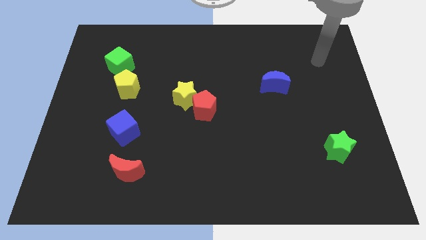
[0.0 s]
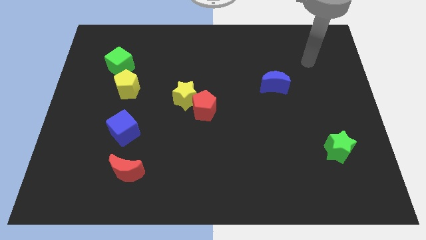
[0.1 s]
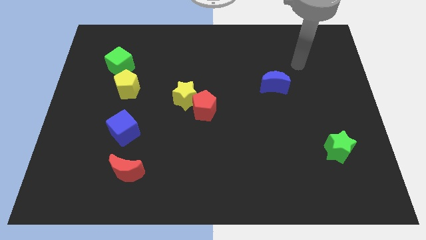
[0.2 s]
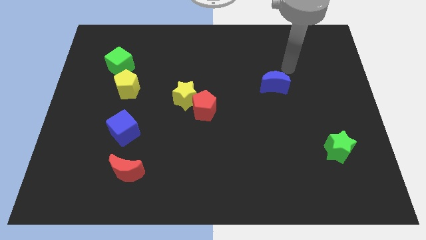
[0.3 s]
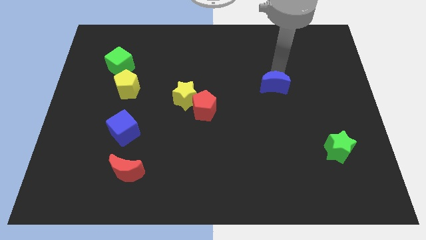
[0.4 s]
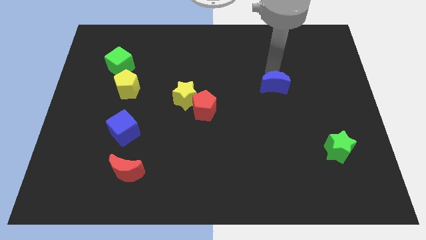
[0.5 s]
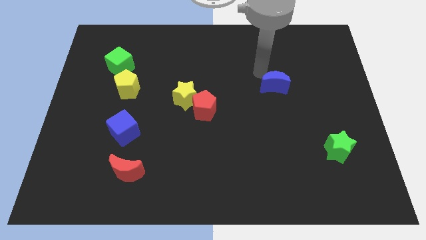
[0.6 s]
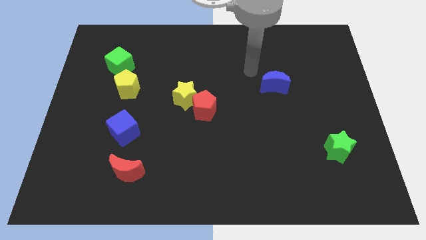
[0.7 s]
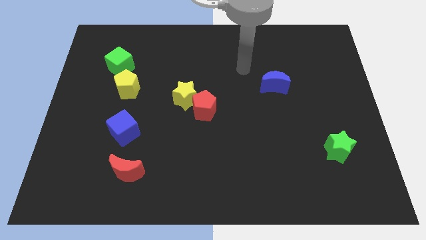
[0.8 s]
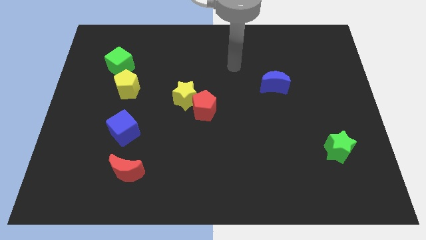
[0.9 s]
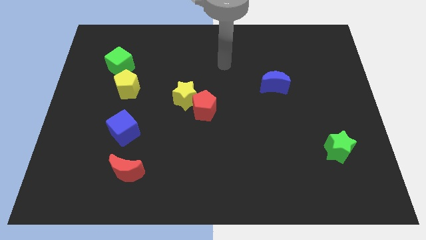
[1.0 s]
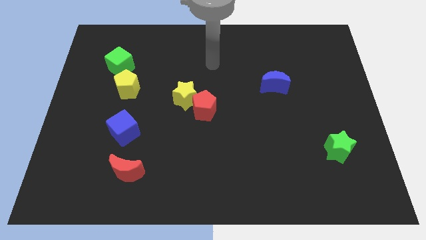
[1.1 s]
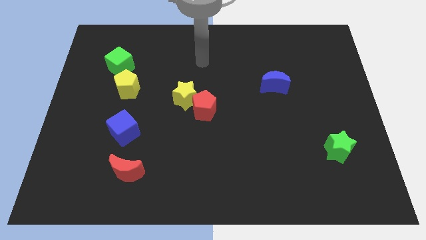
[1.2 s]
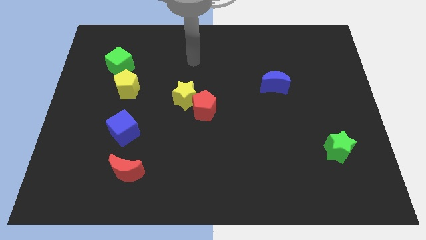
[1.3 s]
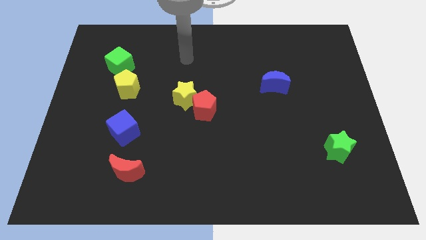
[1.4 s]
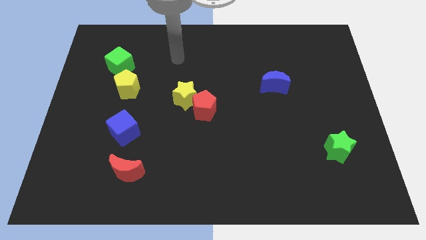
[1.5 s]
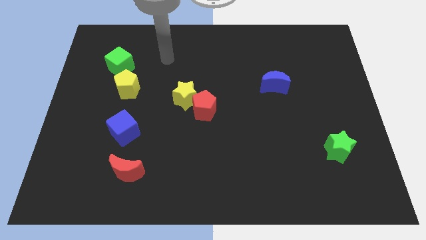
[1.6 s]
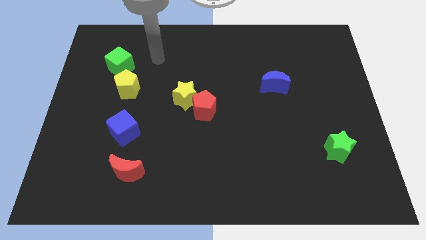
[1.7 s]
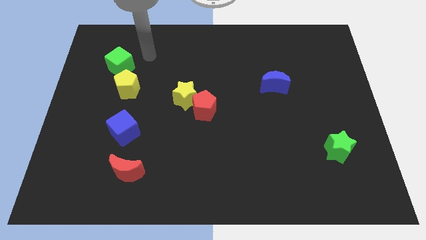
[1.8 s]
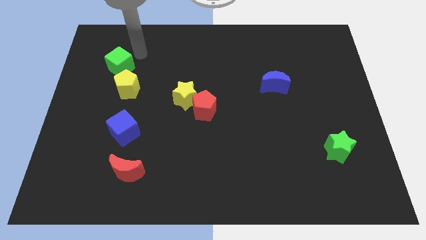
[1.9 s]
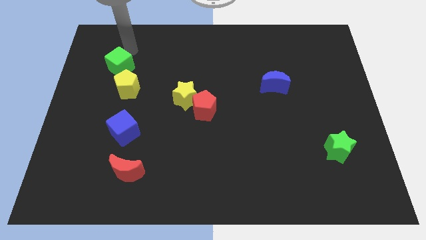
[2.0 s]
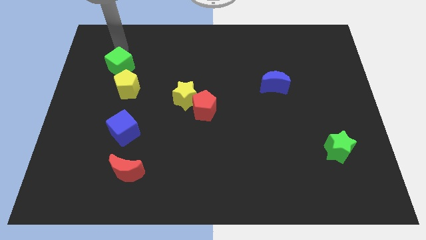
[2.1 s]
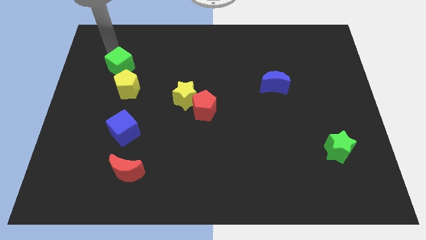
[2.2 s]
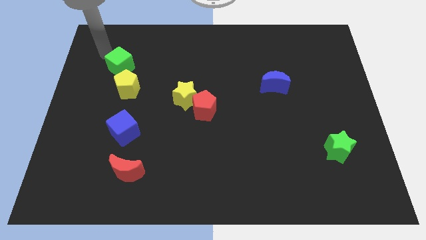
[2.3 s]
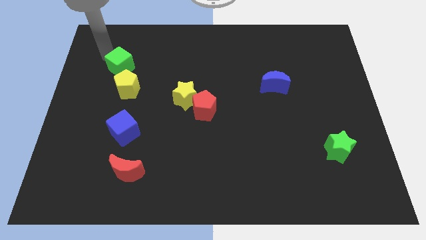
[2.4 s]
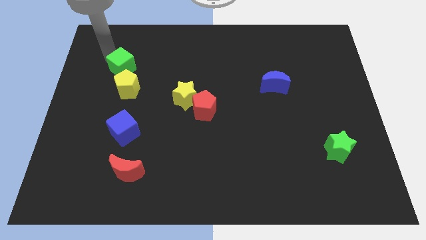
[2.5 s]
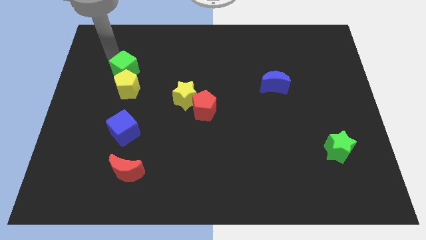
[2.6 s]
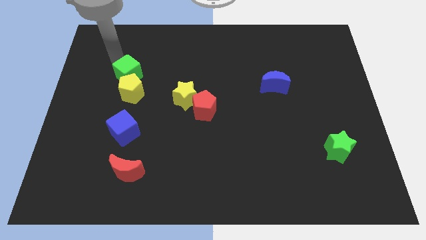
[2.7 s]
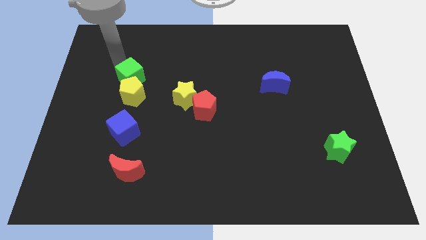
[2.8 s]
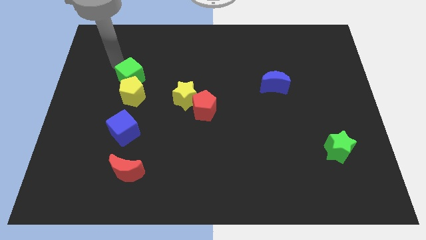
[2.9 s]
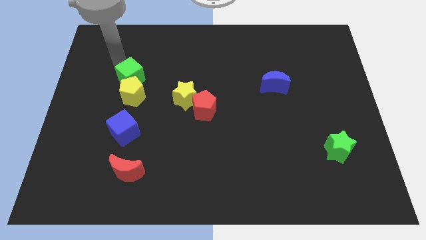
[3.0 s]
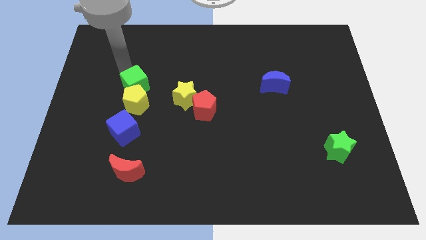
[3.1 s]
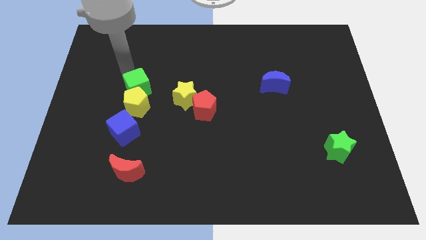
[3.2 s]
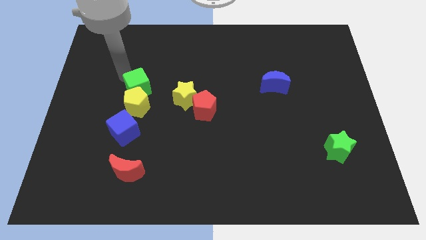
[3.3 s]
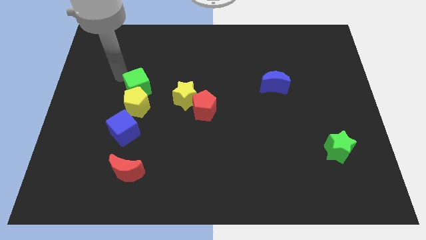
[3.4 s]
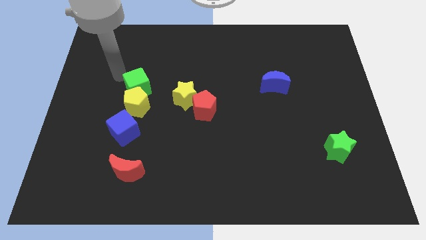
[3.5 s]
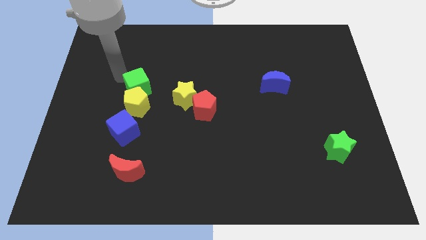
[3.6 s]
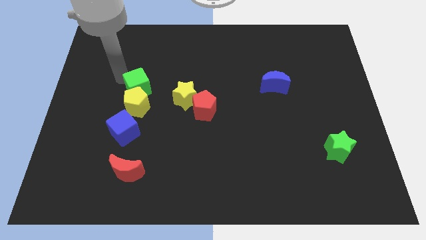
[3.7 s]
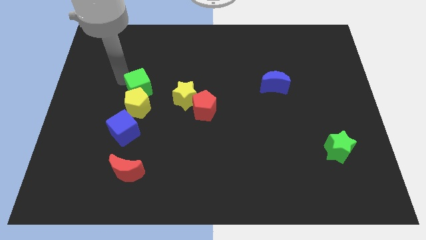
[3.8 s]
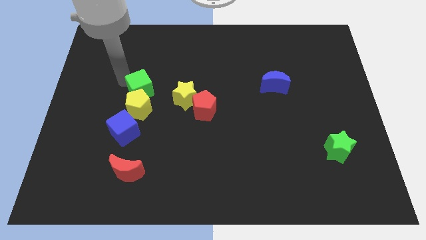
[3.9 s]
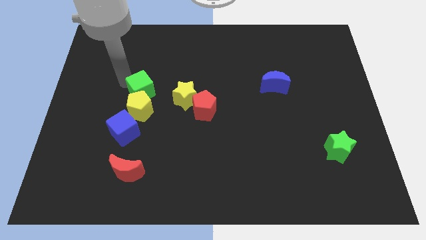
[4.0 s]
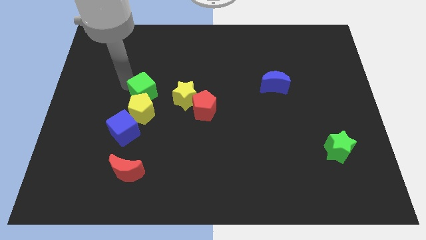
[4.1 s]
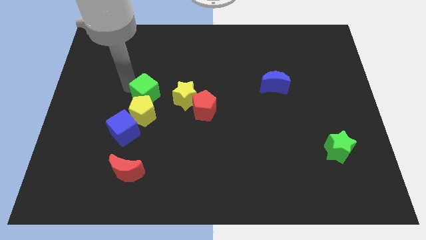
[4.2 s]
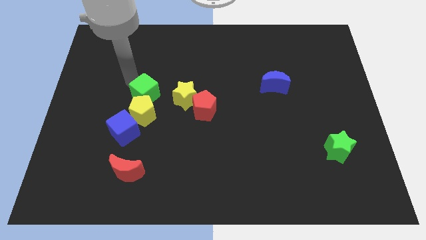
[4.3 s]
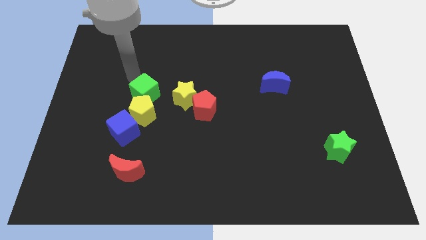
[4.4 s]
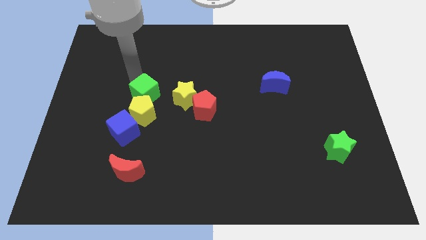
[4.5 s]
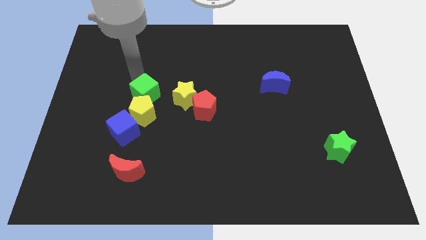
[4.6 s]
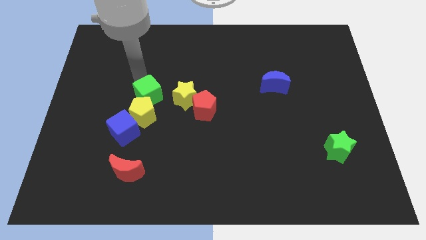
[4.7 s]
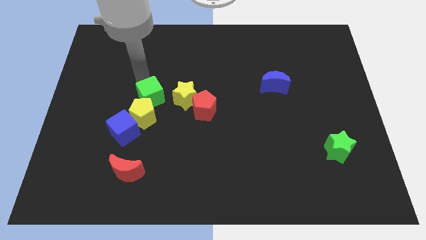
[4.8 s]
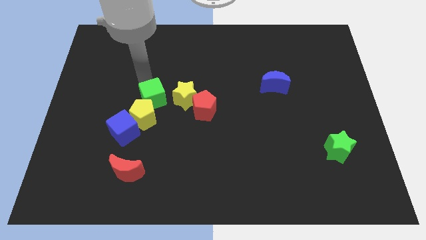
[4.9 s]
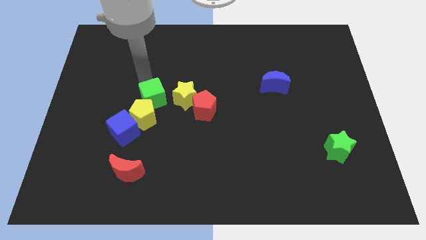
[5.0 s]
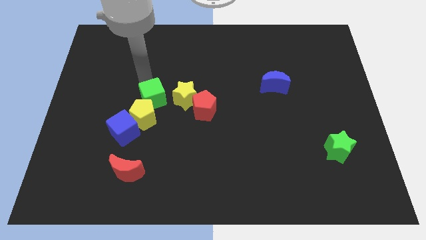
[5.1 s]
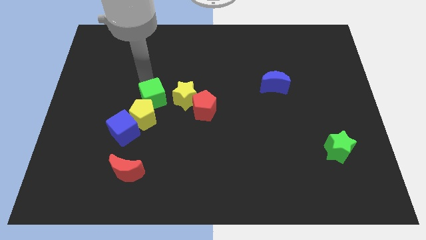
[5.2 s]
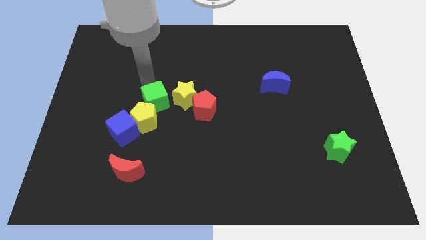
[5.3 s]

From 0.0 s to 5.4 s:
push the green cube diagonally down and to the left of the yellow star

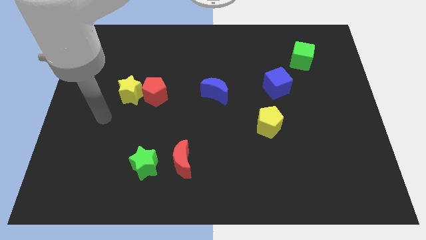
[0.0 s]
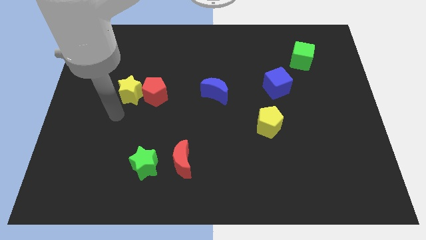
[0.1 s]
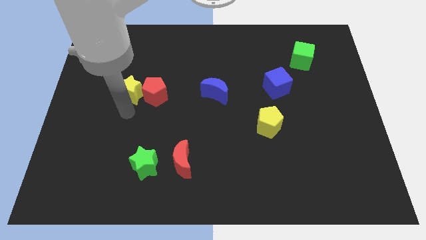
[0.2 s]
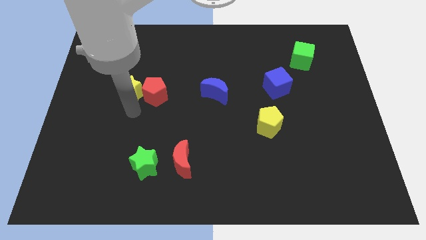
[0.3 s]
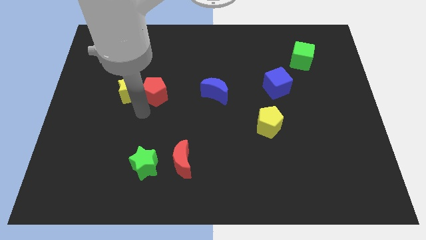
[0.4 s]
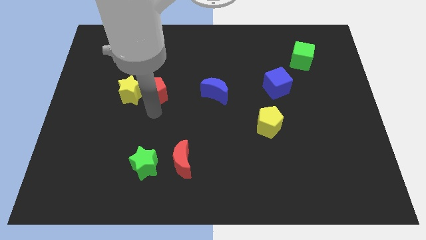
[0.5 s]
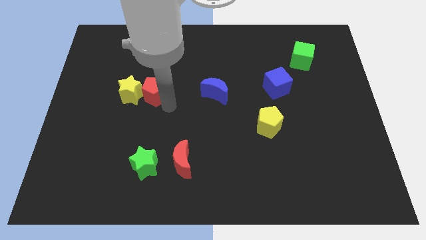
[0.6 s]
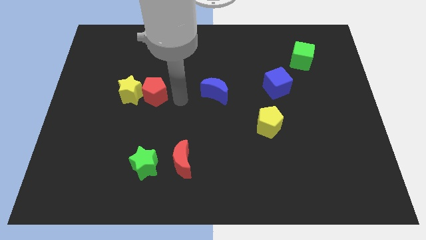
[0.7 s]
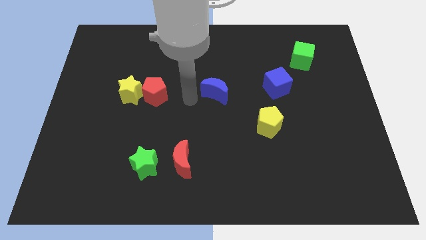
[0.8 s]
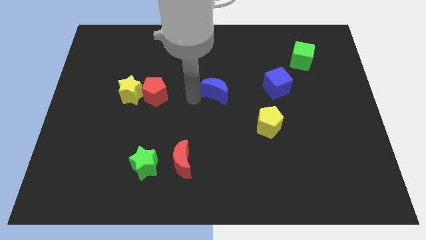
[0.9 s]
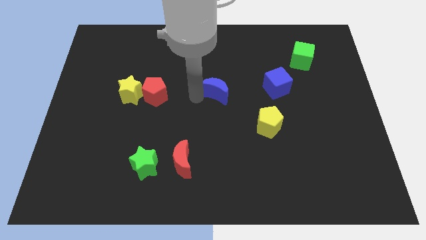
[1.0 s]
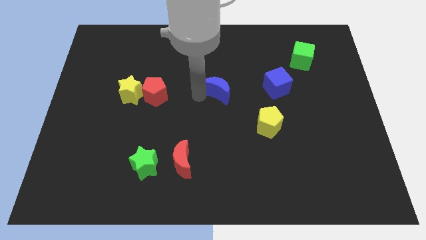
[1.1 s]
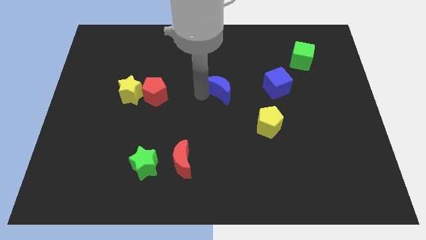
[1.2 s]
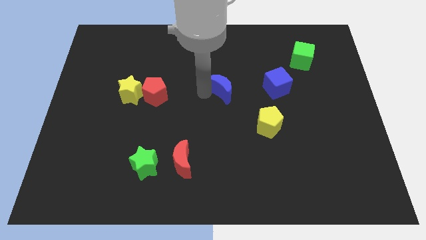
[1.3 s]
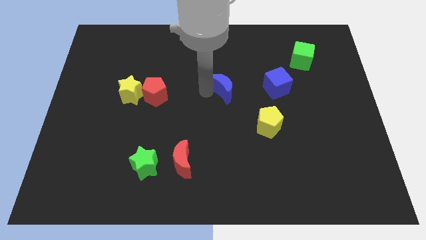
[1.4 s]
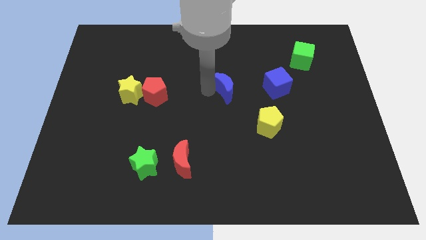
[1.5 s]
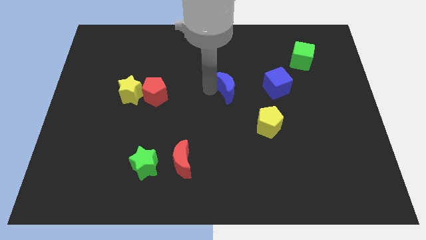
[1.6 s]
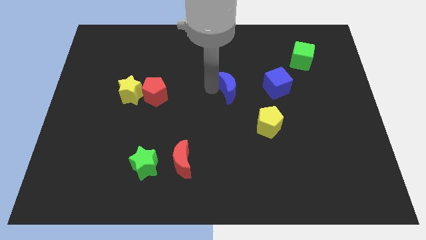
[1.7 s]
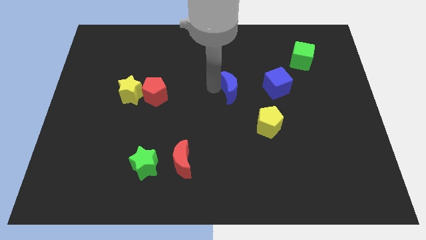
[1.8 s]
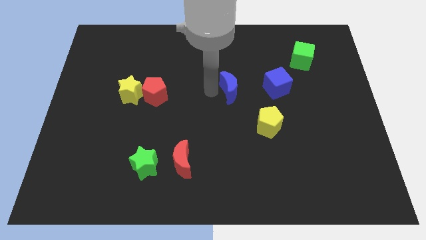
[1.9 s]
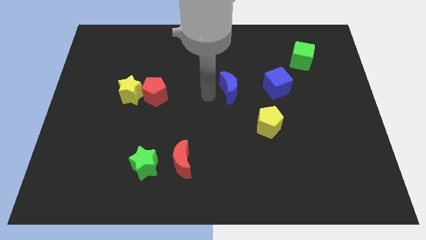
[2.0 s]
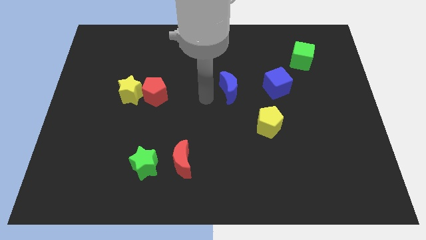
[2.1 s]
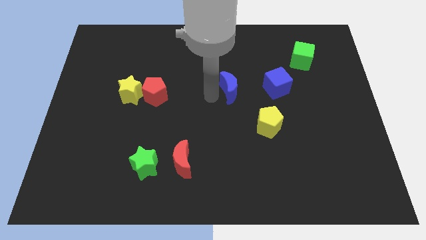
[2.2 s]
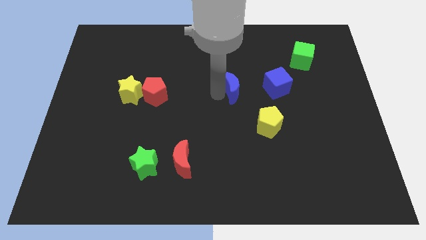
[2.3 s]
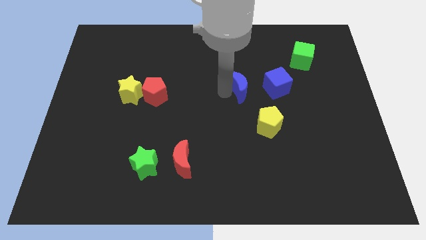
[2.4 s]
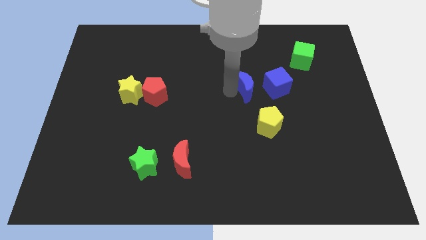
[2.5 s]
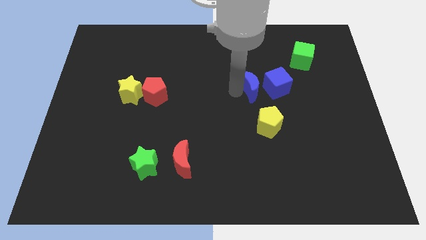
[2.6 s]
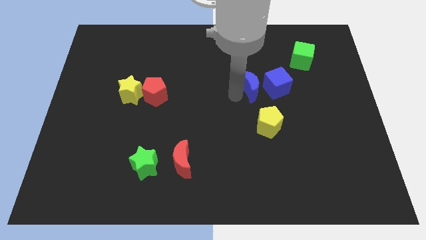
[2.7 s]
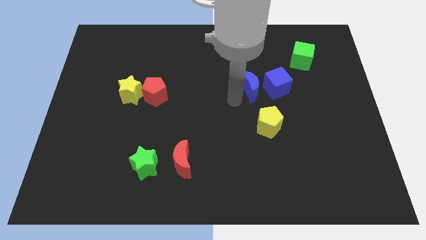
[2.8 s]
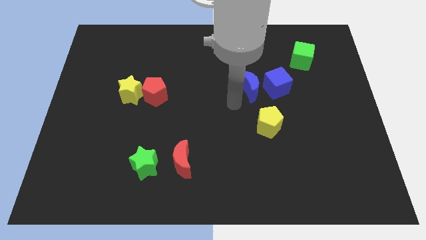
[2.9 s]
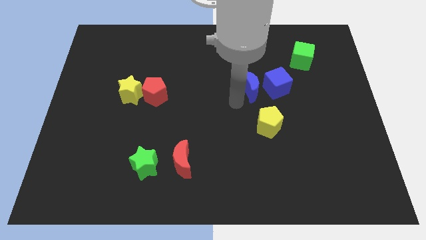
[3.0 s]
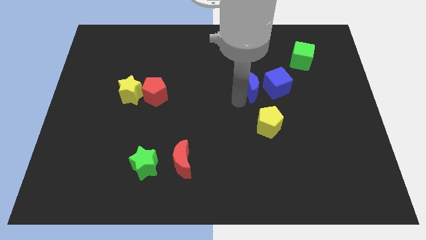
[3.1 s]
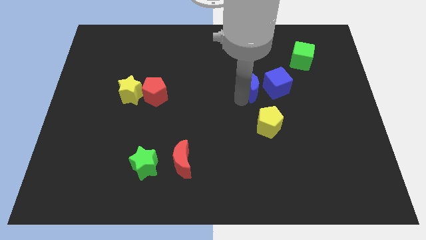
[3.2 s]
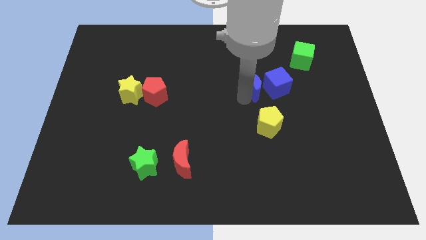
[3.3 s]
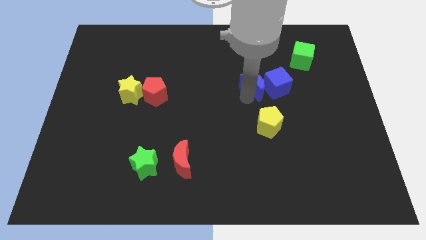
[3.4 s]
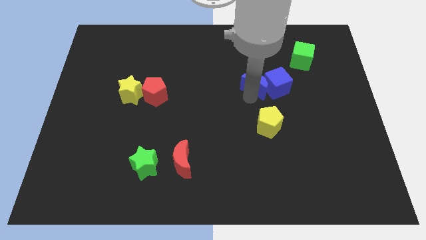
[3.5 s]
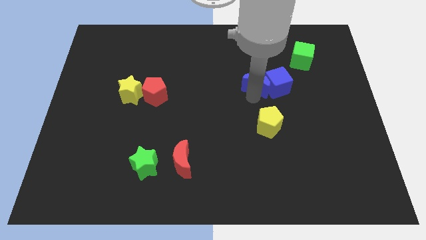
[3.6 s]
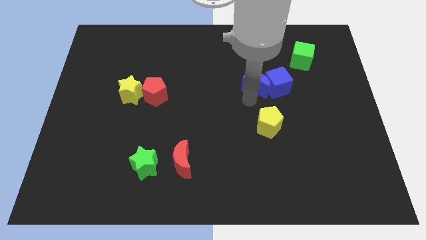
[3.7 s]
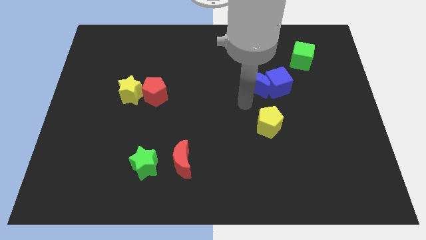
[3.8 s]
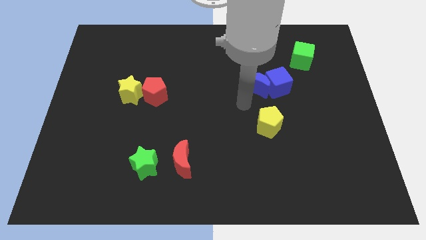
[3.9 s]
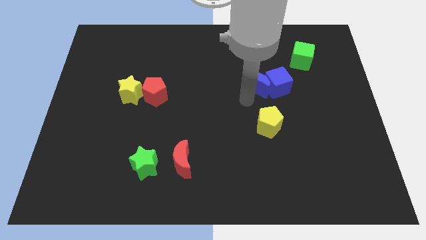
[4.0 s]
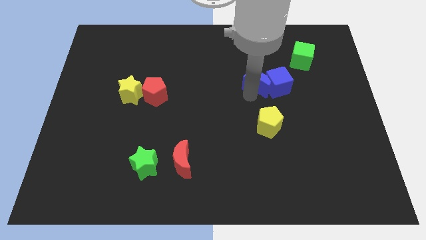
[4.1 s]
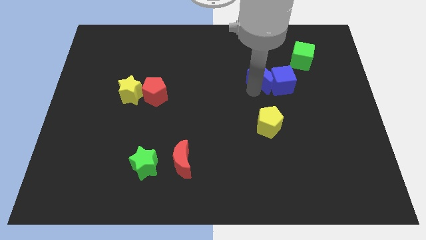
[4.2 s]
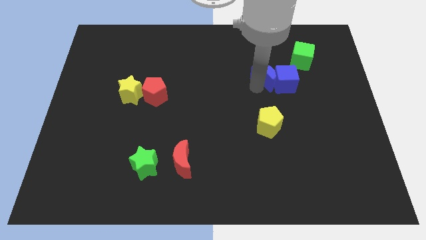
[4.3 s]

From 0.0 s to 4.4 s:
push the blue moon to the bottom left of the green cube
